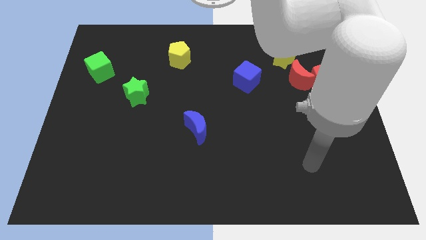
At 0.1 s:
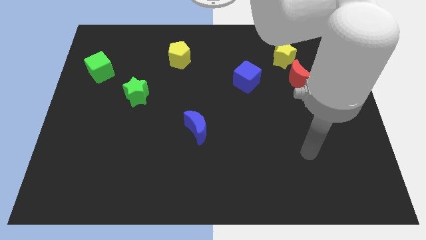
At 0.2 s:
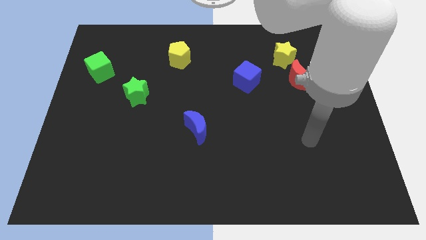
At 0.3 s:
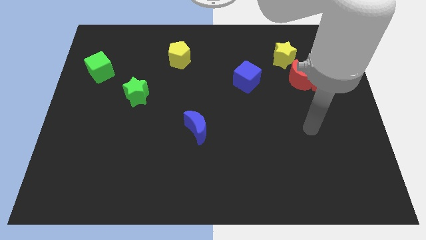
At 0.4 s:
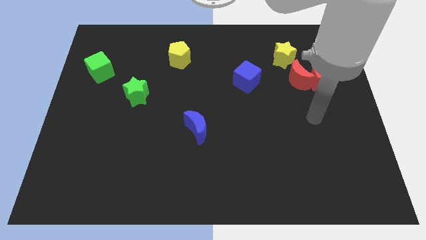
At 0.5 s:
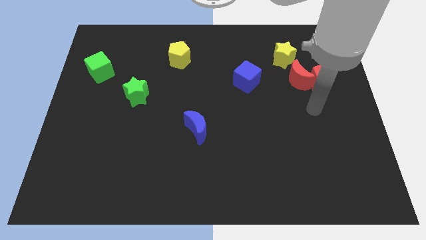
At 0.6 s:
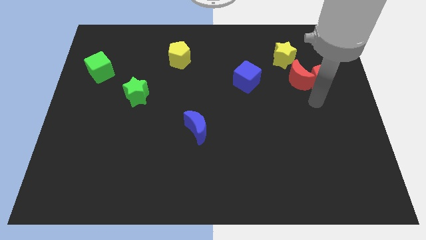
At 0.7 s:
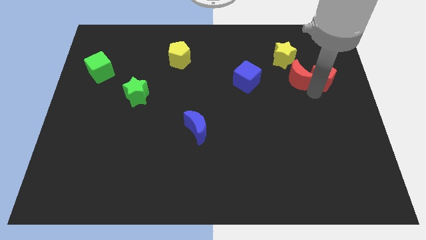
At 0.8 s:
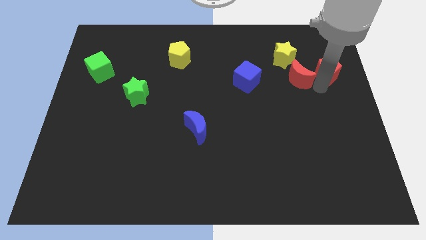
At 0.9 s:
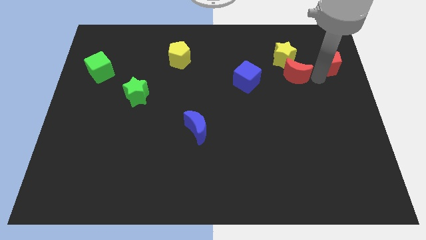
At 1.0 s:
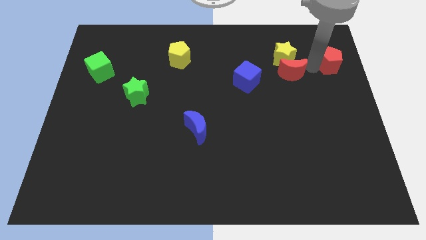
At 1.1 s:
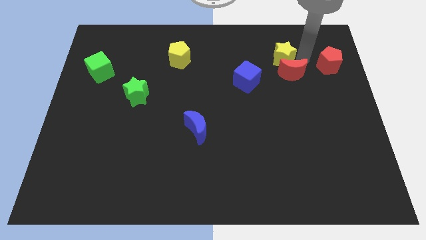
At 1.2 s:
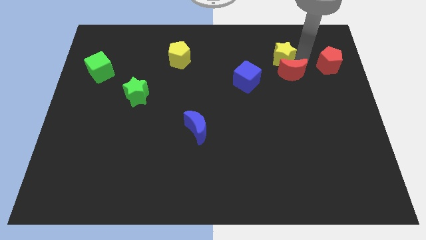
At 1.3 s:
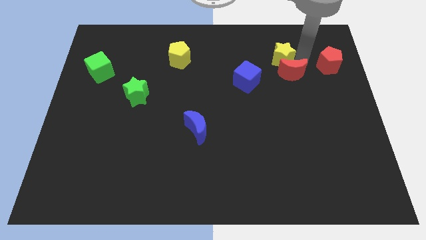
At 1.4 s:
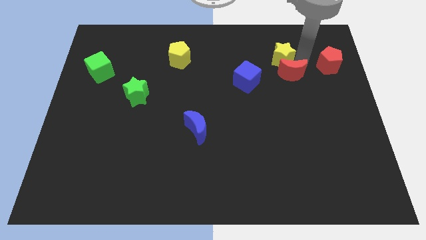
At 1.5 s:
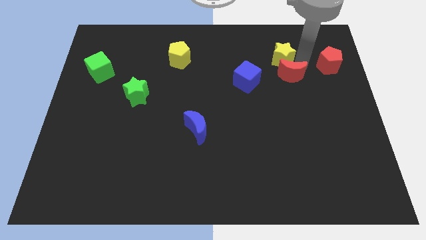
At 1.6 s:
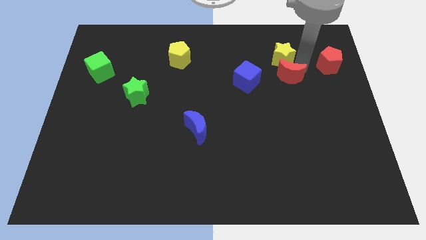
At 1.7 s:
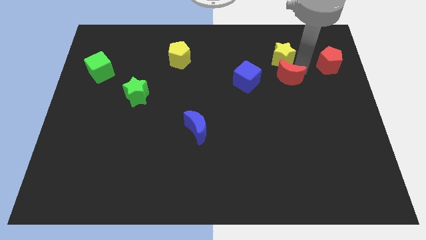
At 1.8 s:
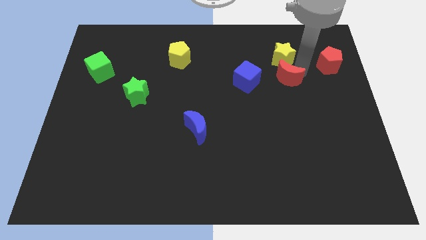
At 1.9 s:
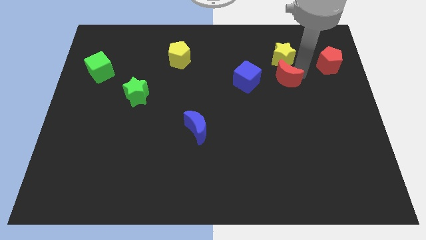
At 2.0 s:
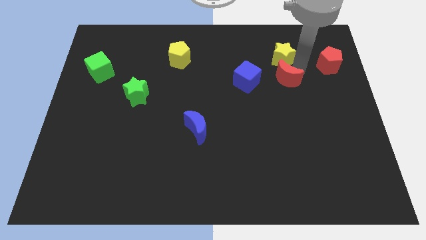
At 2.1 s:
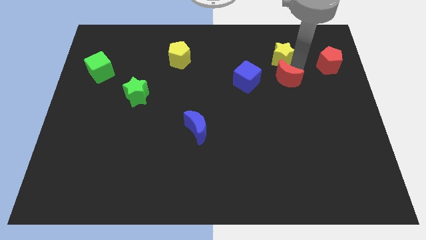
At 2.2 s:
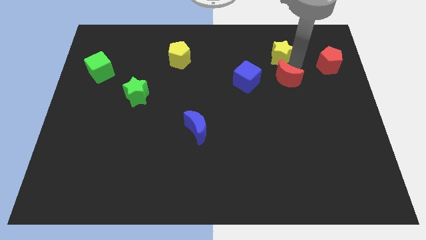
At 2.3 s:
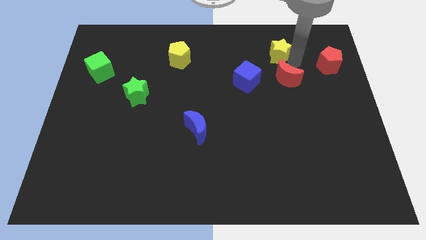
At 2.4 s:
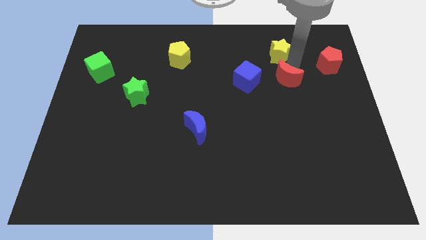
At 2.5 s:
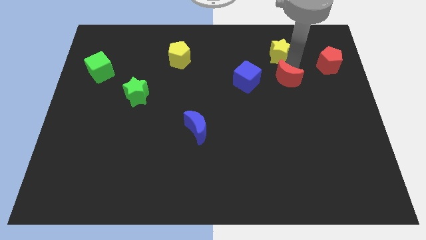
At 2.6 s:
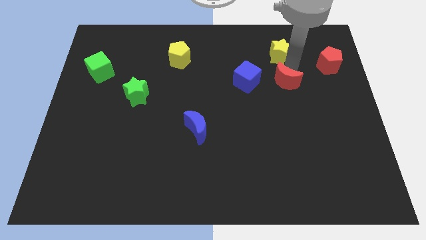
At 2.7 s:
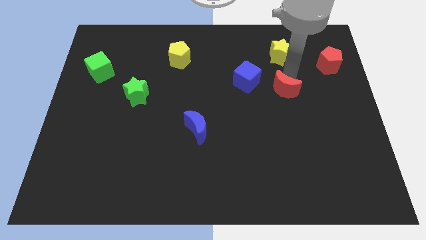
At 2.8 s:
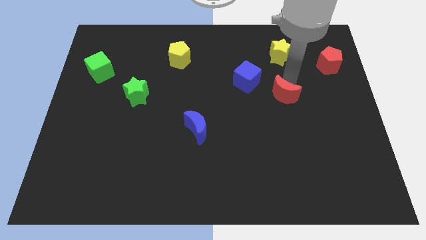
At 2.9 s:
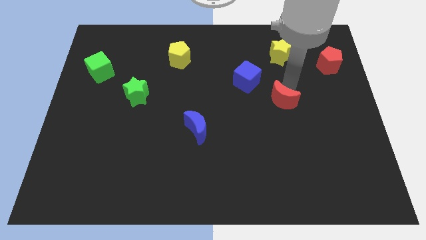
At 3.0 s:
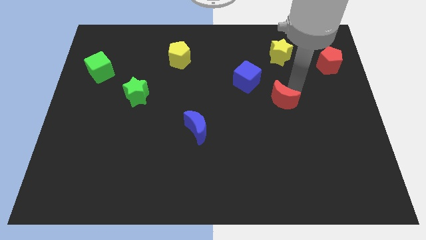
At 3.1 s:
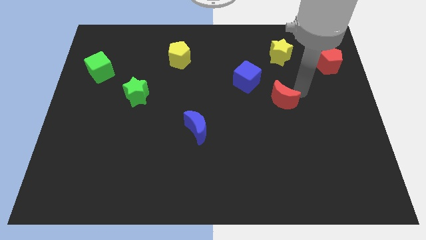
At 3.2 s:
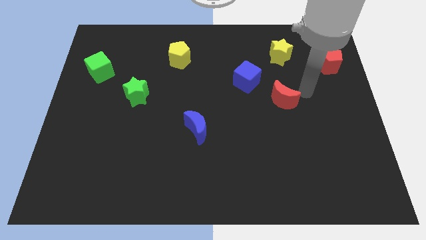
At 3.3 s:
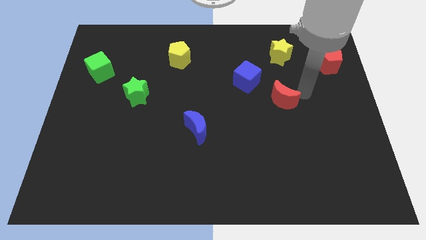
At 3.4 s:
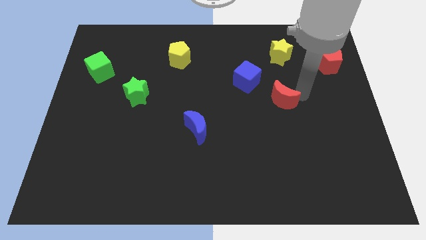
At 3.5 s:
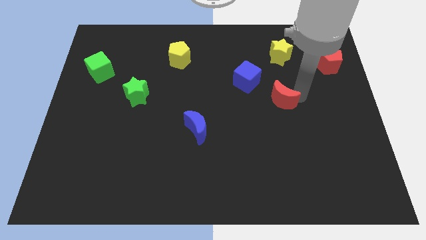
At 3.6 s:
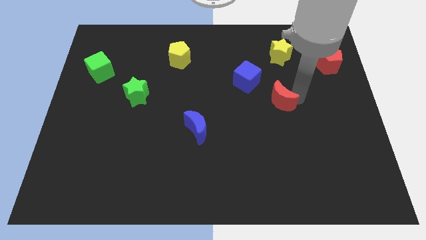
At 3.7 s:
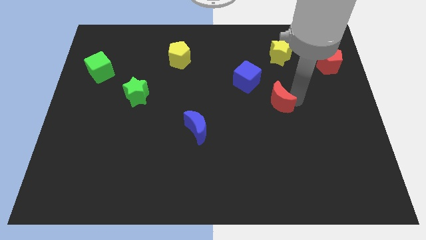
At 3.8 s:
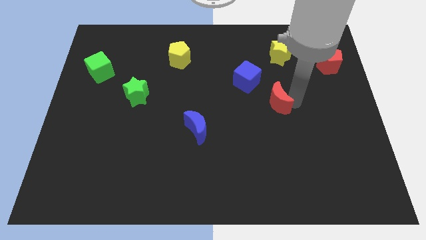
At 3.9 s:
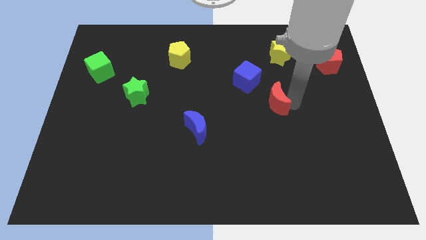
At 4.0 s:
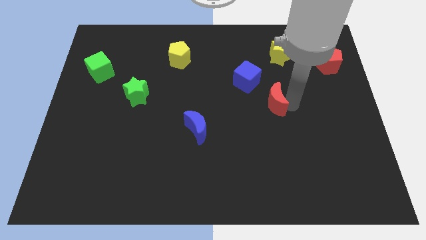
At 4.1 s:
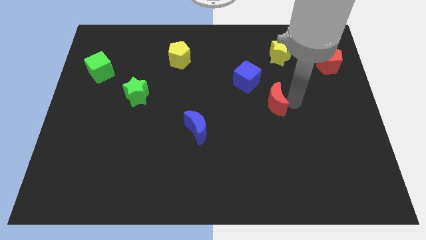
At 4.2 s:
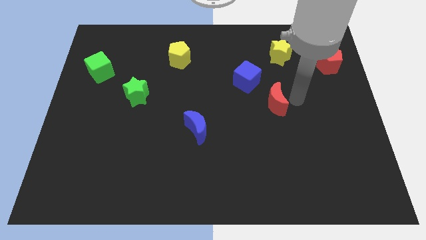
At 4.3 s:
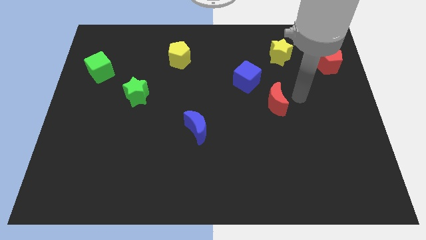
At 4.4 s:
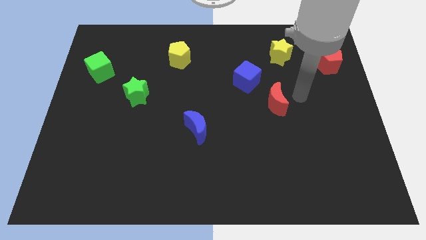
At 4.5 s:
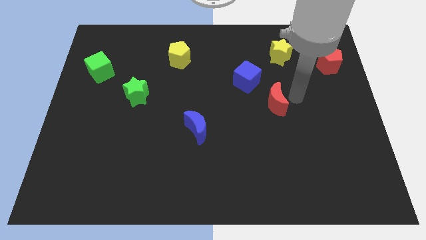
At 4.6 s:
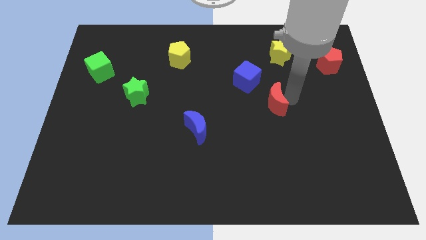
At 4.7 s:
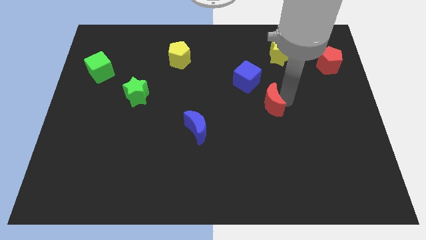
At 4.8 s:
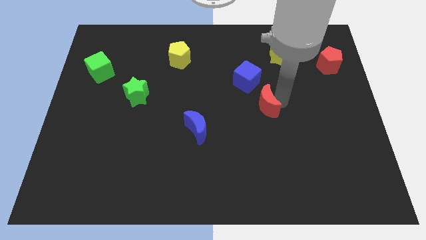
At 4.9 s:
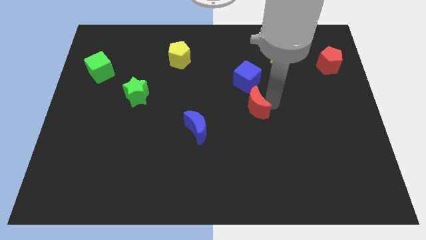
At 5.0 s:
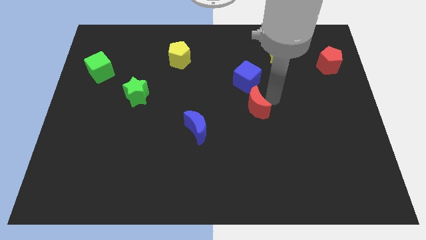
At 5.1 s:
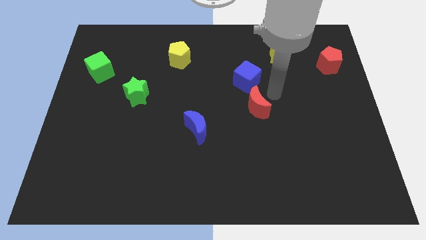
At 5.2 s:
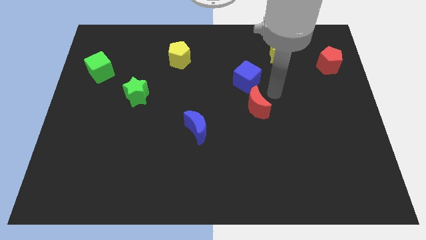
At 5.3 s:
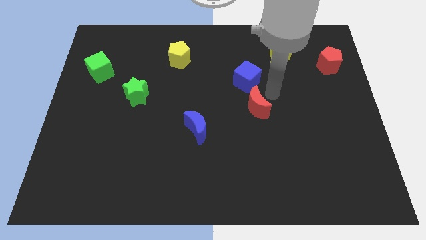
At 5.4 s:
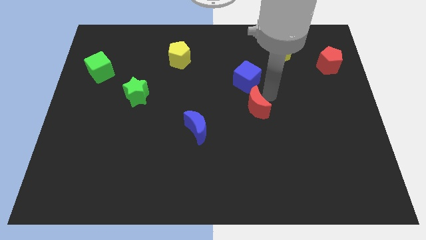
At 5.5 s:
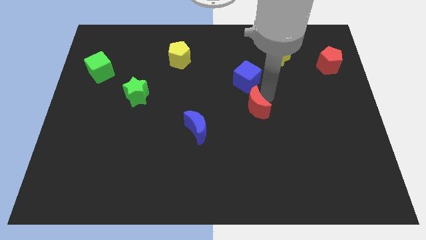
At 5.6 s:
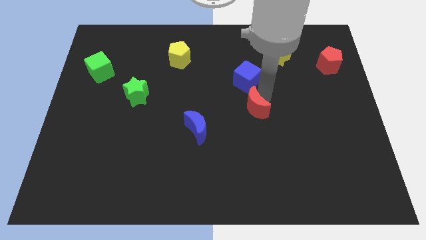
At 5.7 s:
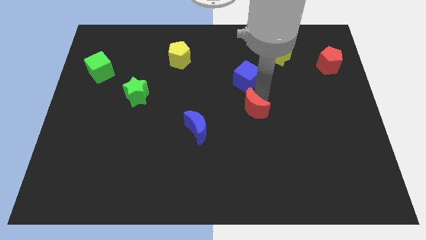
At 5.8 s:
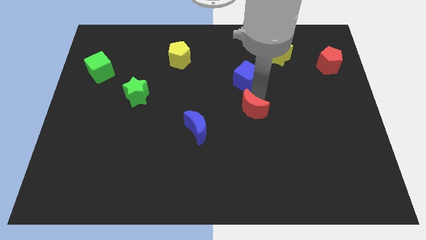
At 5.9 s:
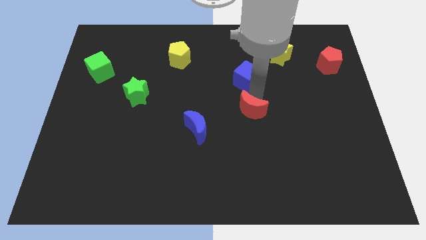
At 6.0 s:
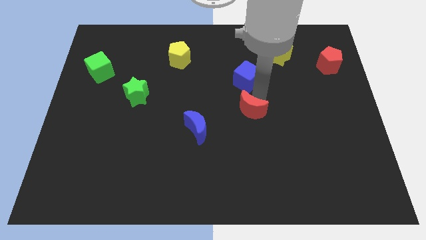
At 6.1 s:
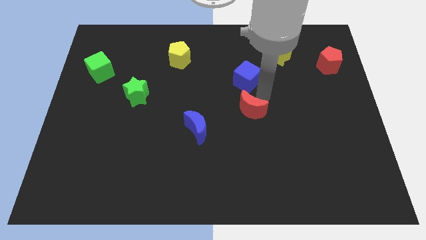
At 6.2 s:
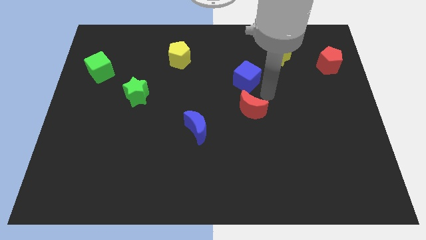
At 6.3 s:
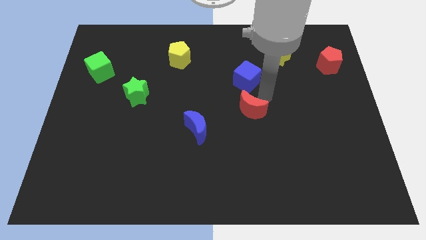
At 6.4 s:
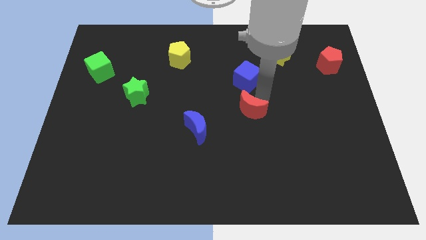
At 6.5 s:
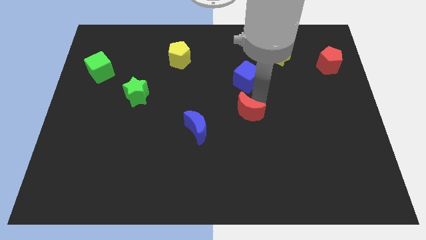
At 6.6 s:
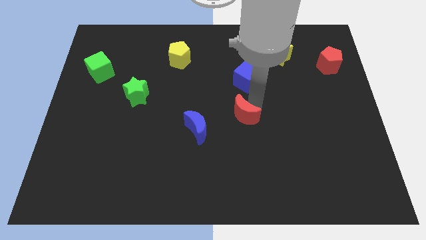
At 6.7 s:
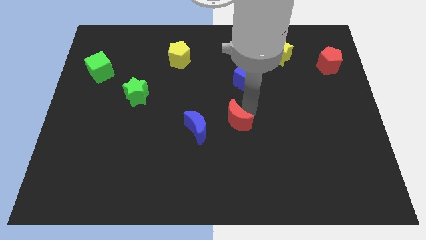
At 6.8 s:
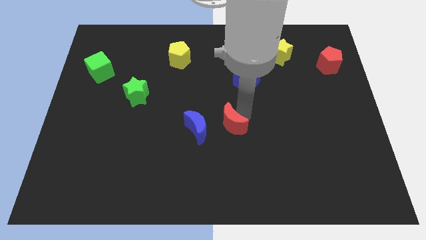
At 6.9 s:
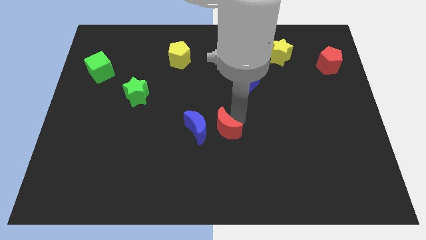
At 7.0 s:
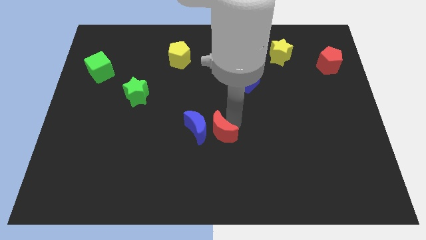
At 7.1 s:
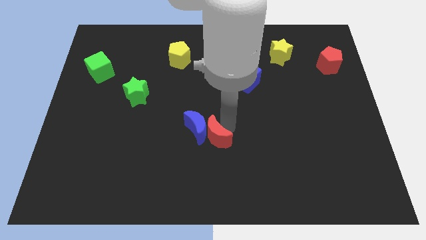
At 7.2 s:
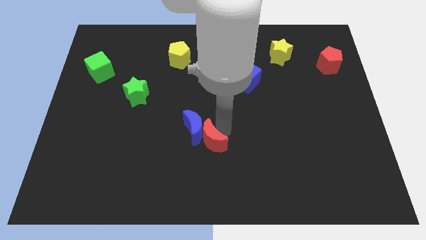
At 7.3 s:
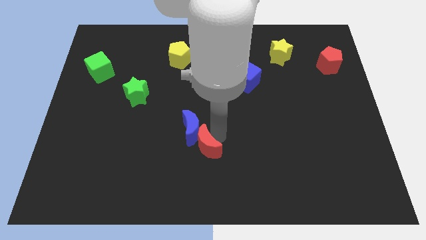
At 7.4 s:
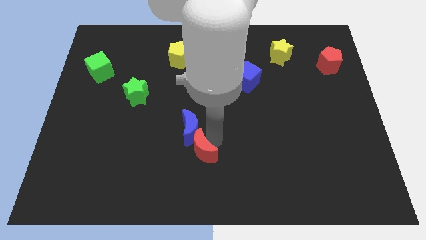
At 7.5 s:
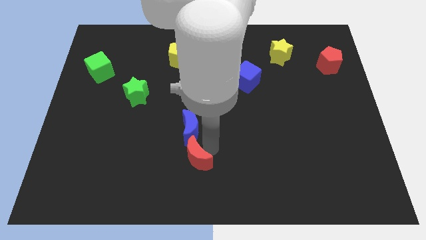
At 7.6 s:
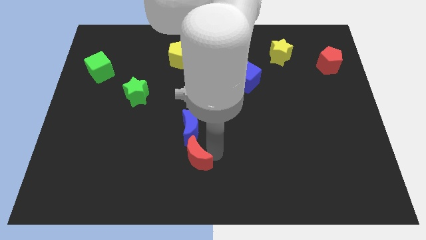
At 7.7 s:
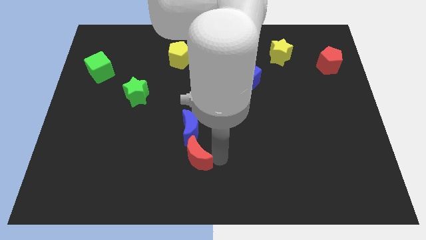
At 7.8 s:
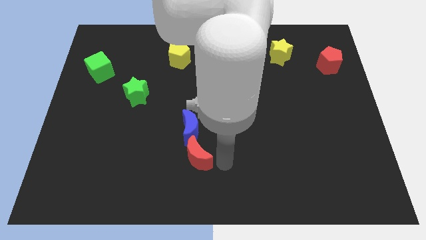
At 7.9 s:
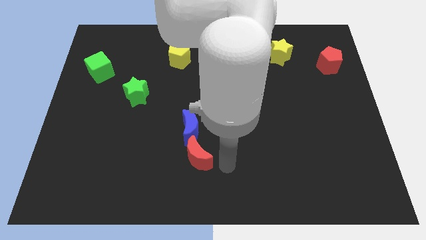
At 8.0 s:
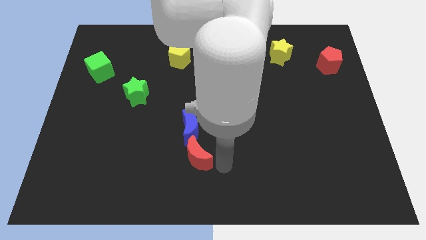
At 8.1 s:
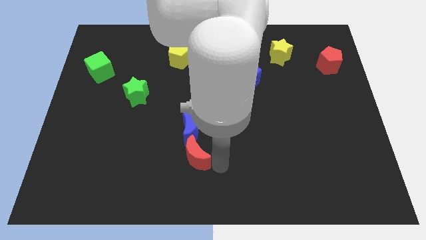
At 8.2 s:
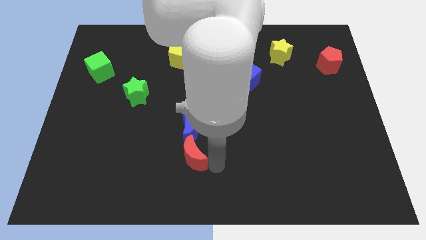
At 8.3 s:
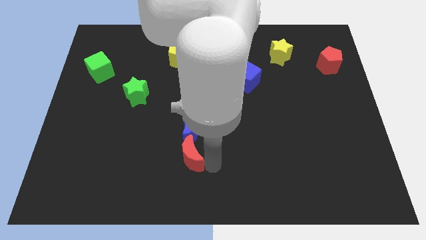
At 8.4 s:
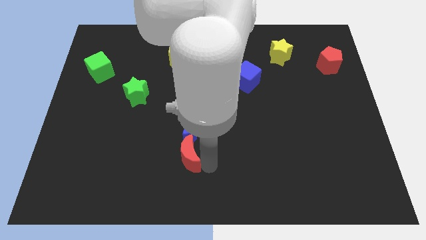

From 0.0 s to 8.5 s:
put the red moon diagonally down and to the left of the blue moon
